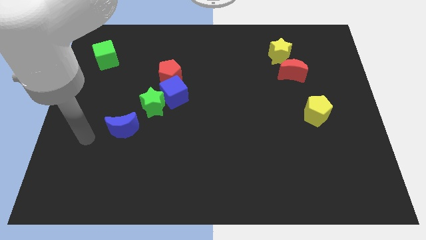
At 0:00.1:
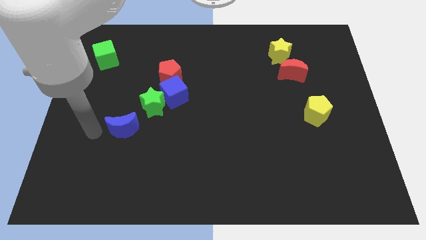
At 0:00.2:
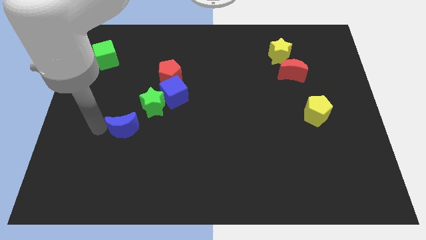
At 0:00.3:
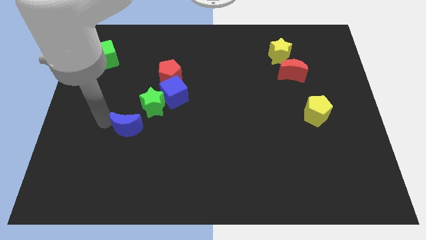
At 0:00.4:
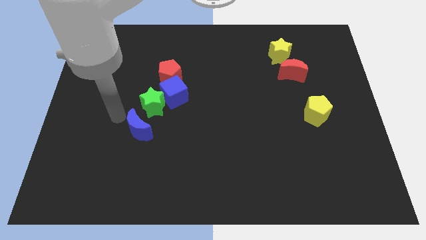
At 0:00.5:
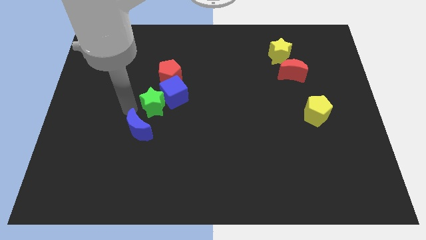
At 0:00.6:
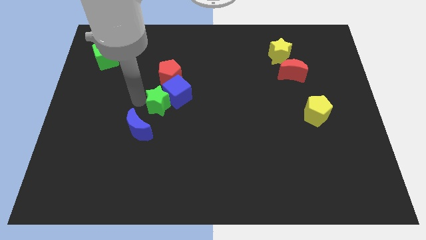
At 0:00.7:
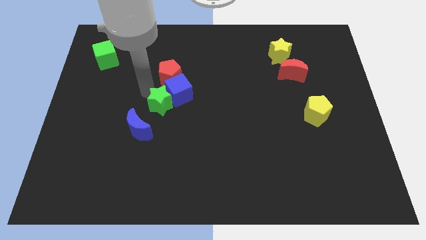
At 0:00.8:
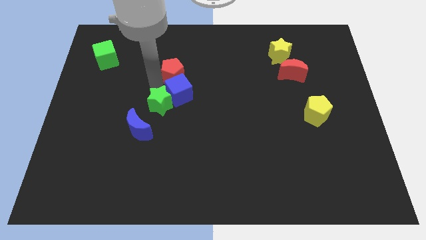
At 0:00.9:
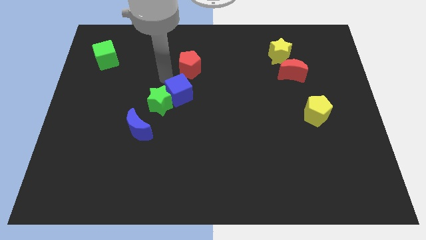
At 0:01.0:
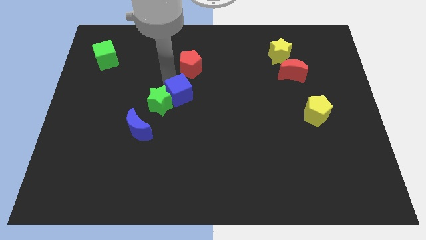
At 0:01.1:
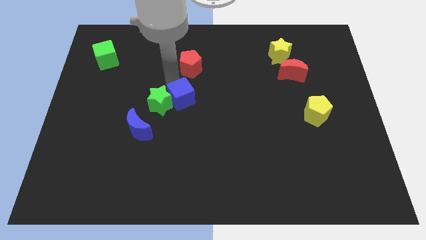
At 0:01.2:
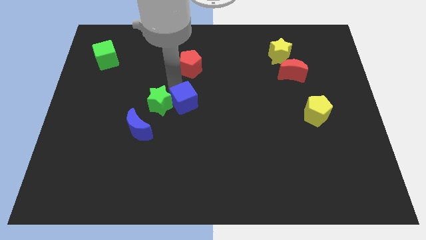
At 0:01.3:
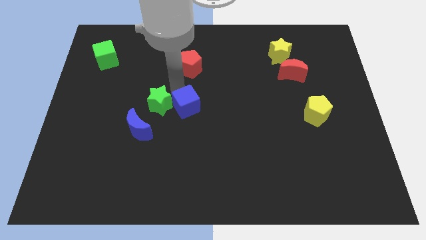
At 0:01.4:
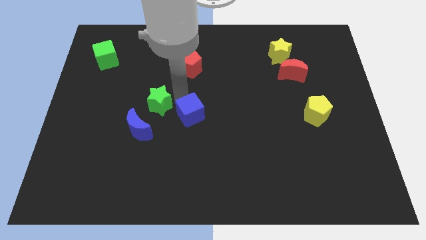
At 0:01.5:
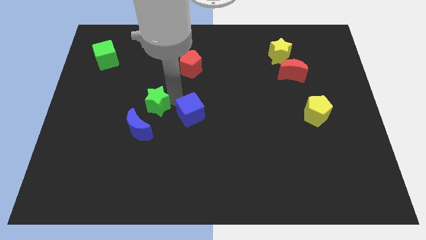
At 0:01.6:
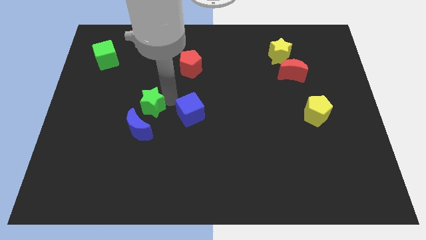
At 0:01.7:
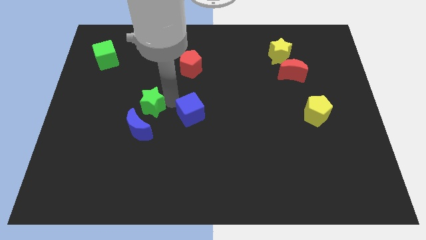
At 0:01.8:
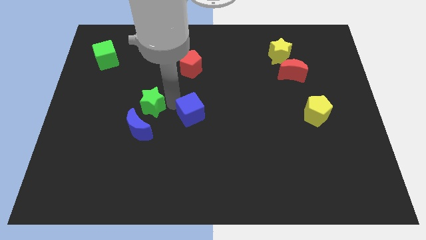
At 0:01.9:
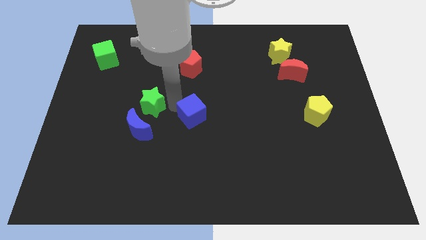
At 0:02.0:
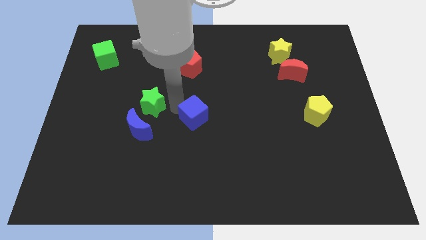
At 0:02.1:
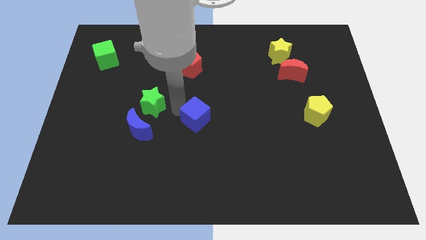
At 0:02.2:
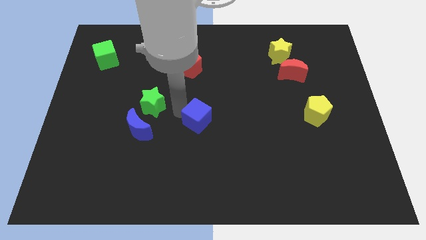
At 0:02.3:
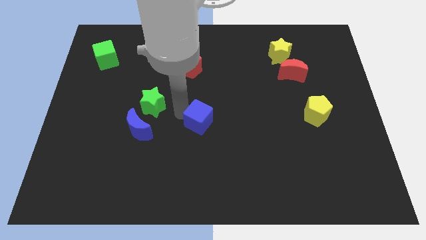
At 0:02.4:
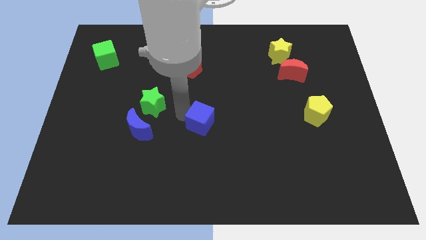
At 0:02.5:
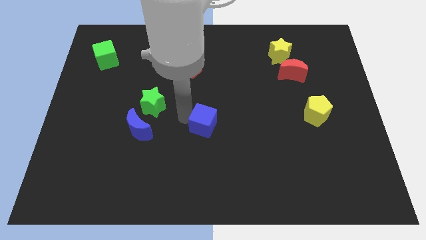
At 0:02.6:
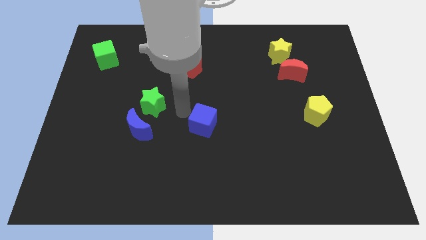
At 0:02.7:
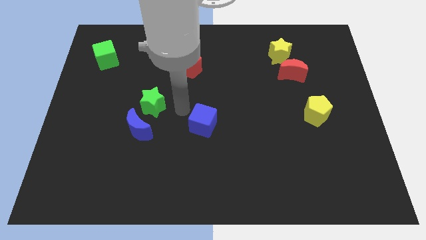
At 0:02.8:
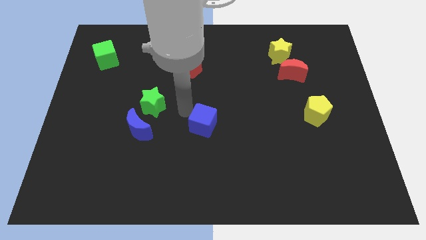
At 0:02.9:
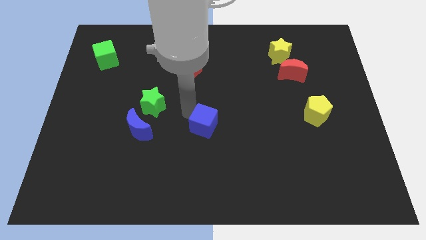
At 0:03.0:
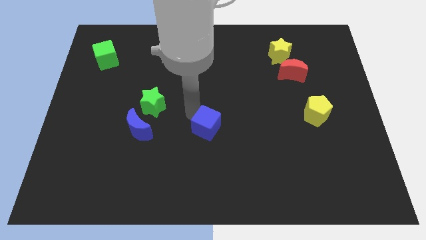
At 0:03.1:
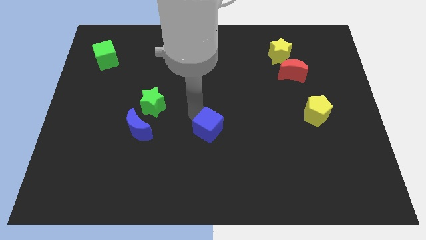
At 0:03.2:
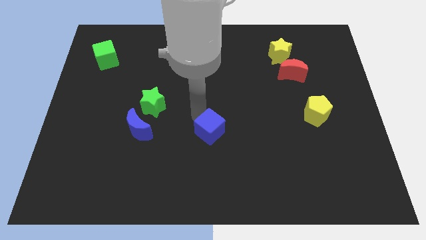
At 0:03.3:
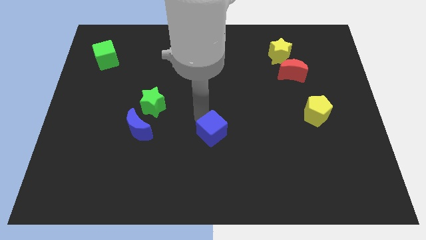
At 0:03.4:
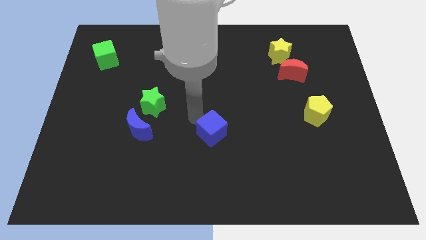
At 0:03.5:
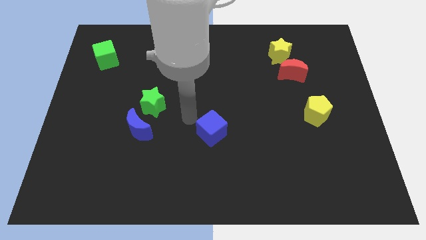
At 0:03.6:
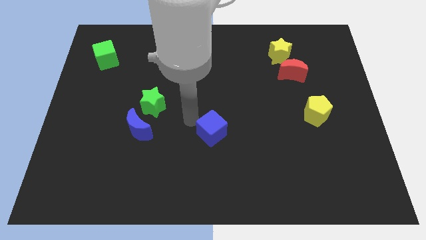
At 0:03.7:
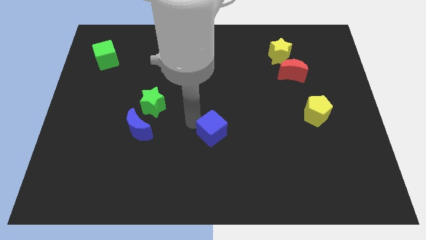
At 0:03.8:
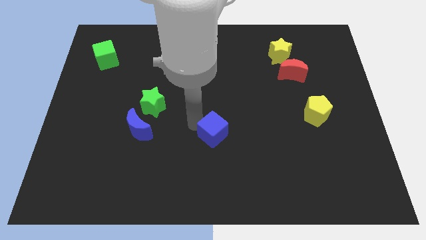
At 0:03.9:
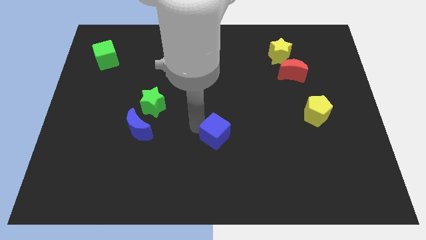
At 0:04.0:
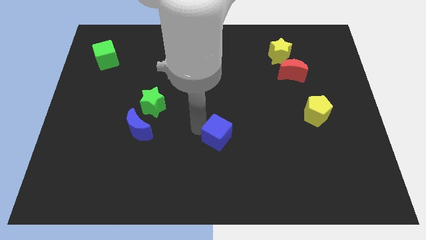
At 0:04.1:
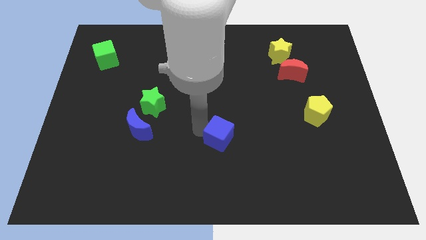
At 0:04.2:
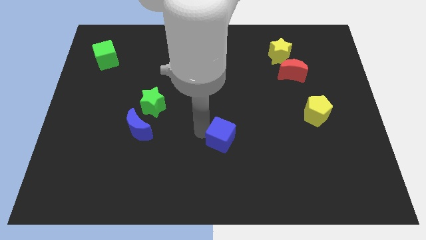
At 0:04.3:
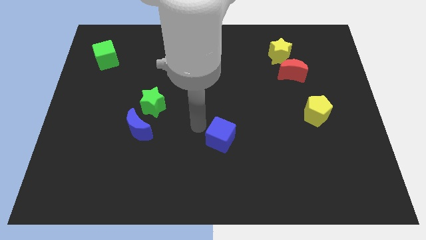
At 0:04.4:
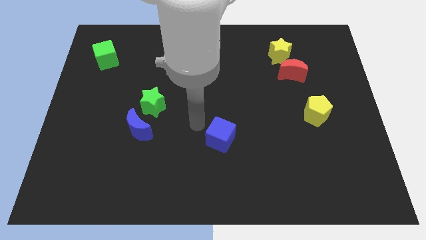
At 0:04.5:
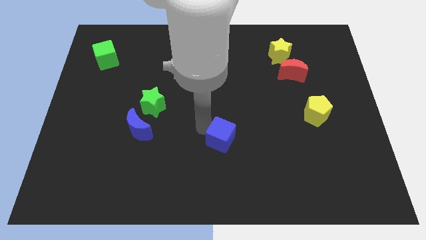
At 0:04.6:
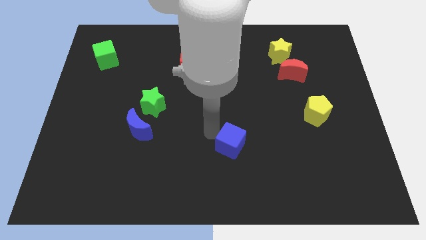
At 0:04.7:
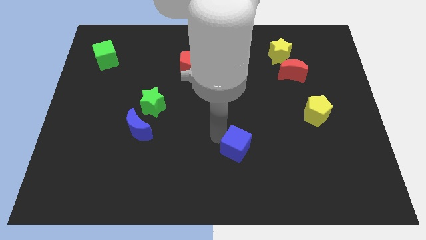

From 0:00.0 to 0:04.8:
slide the blue cube down and to the right

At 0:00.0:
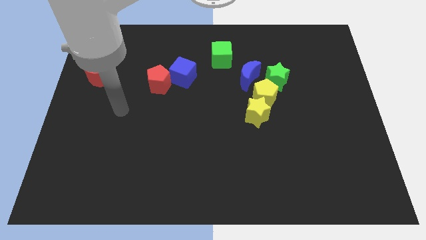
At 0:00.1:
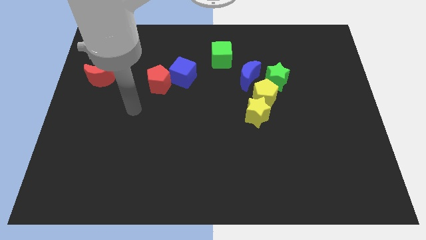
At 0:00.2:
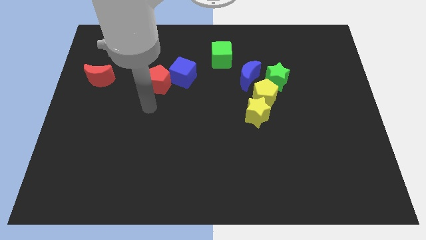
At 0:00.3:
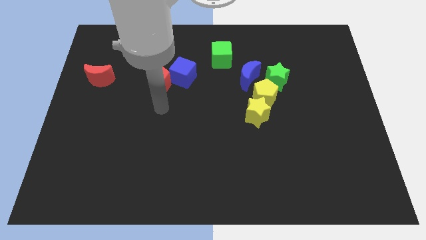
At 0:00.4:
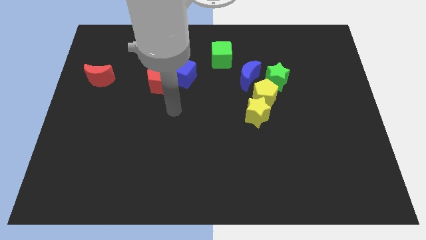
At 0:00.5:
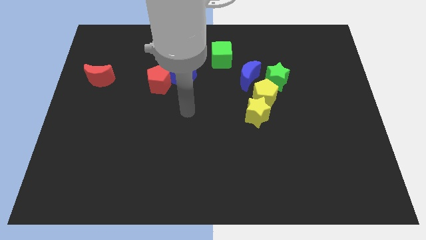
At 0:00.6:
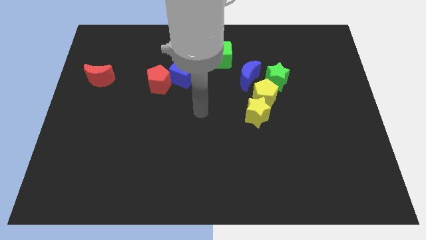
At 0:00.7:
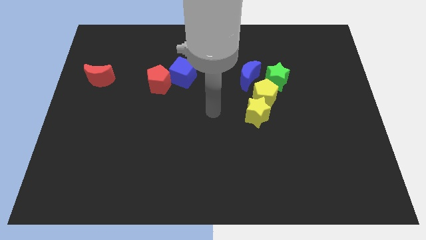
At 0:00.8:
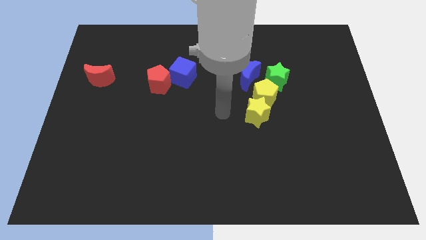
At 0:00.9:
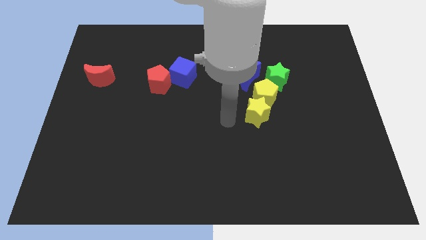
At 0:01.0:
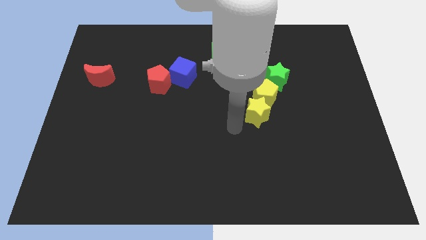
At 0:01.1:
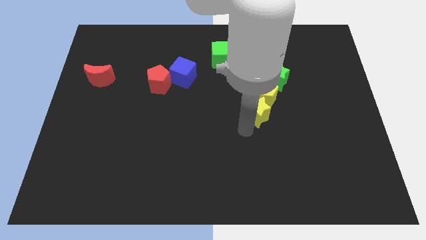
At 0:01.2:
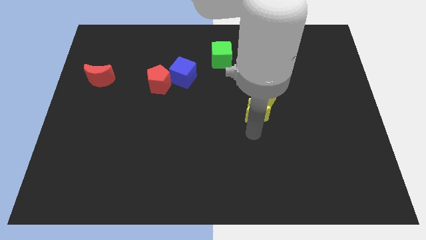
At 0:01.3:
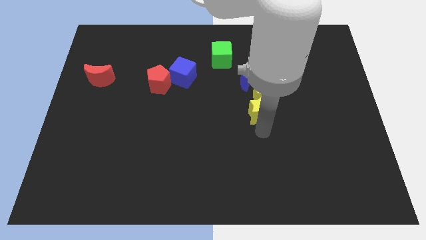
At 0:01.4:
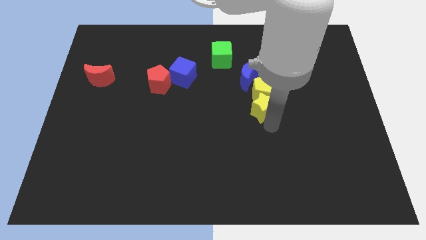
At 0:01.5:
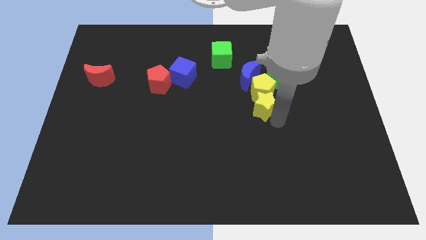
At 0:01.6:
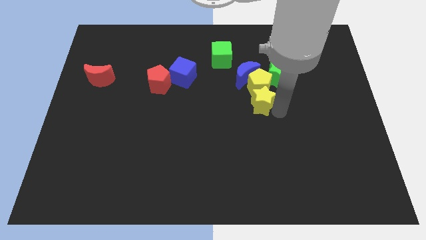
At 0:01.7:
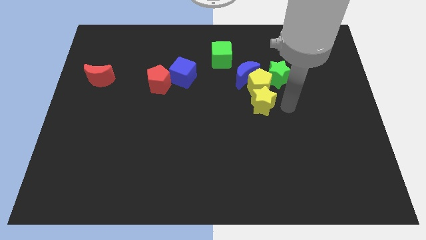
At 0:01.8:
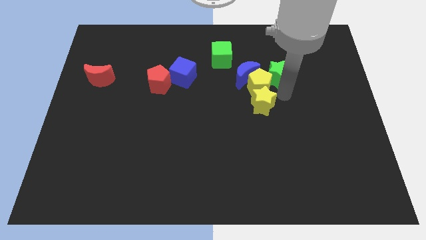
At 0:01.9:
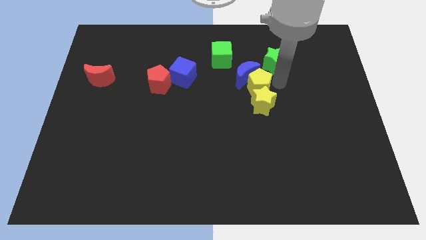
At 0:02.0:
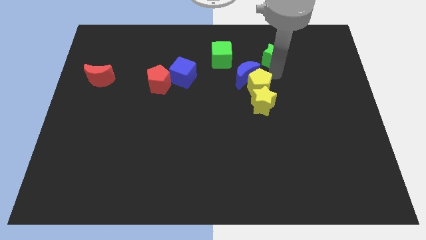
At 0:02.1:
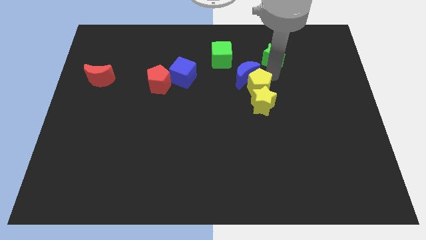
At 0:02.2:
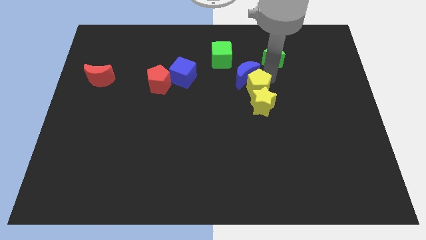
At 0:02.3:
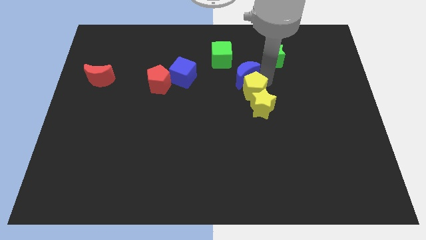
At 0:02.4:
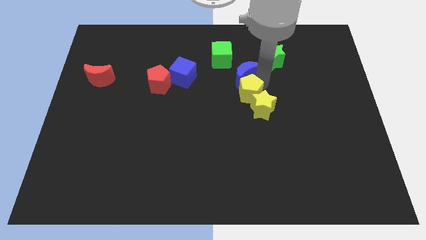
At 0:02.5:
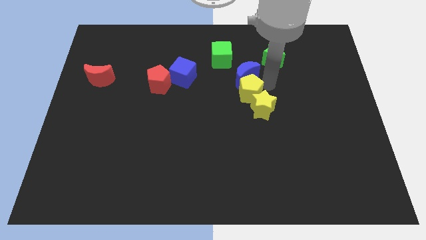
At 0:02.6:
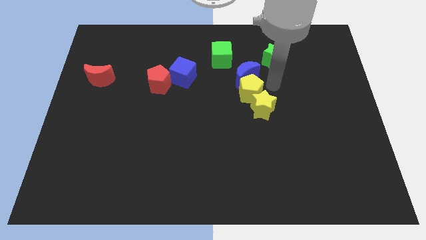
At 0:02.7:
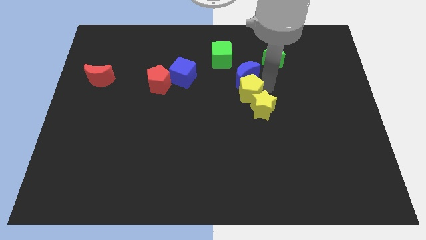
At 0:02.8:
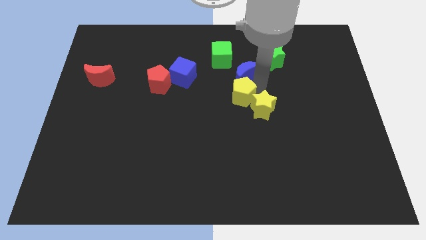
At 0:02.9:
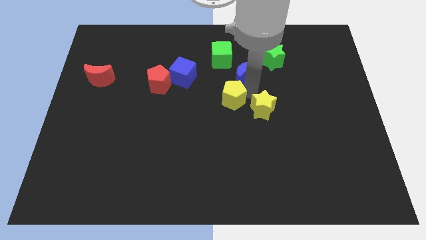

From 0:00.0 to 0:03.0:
move the yellow pentagon to the left somewhat

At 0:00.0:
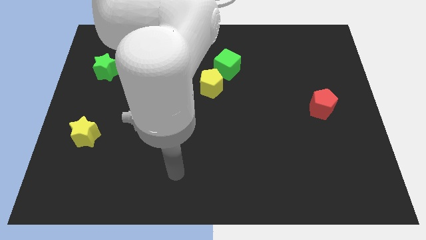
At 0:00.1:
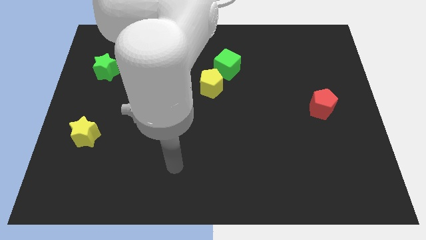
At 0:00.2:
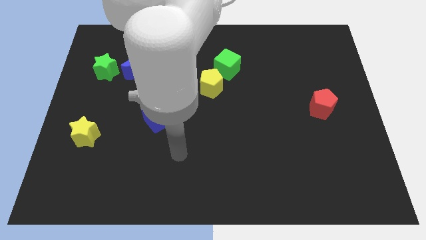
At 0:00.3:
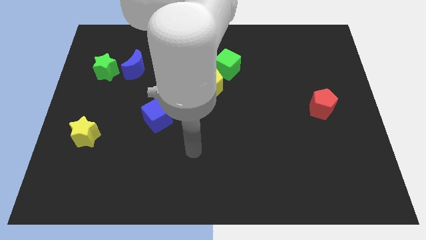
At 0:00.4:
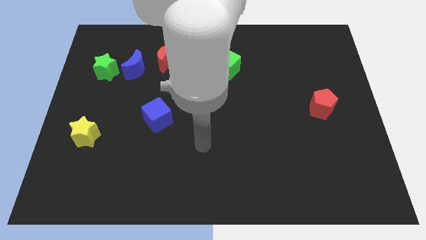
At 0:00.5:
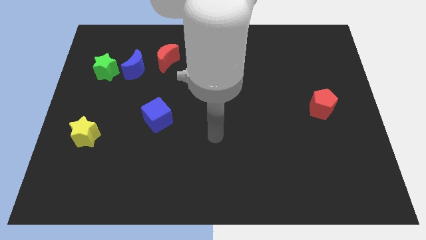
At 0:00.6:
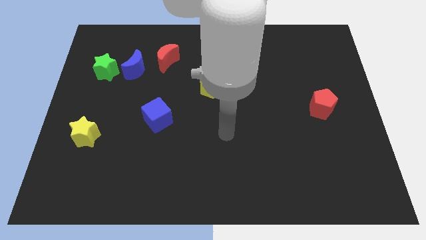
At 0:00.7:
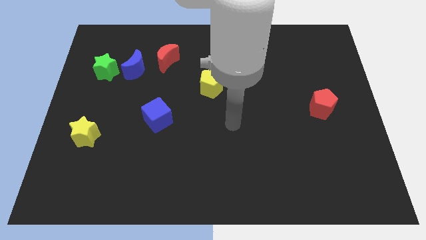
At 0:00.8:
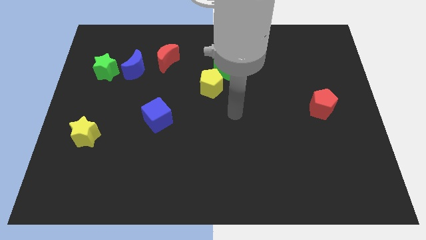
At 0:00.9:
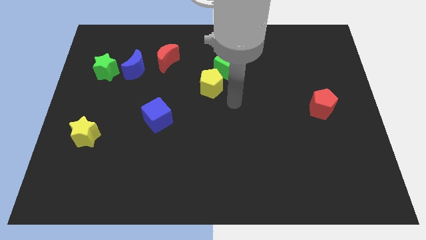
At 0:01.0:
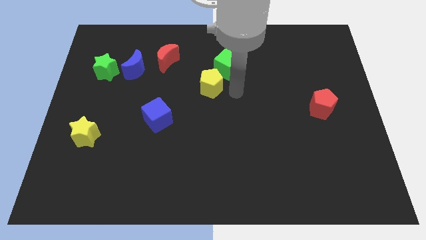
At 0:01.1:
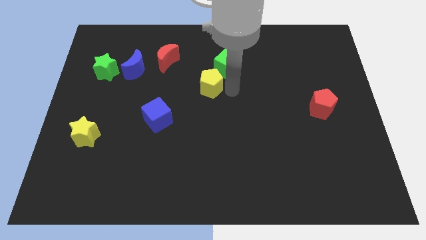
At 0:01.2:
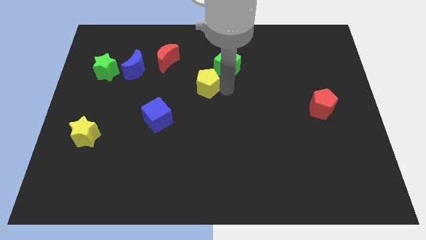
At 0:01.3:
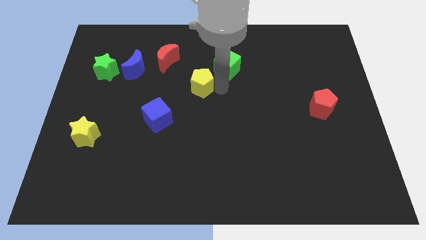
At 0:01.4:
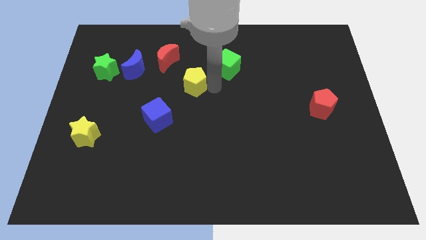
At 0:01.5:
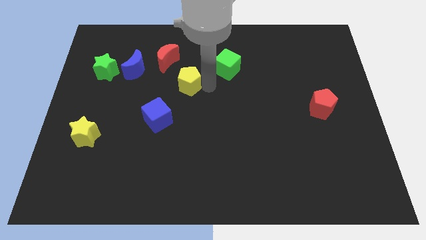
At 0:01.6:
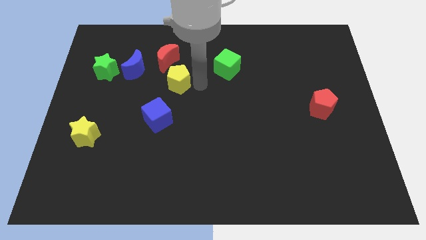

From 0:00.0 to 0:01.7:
slightly slide the yellow pentagon left
